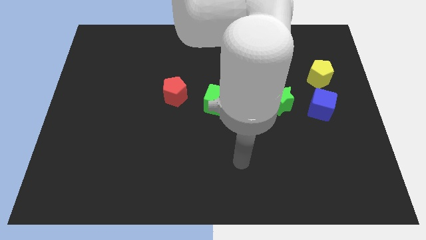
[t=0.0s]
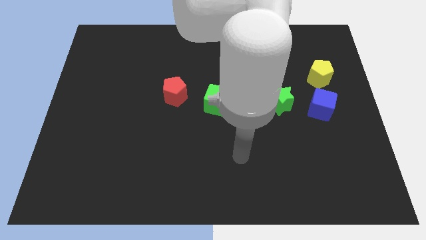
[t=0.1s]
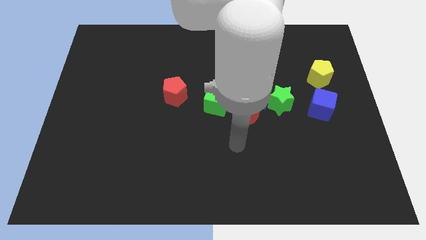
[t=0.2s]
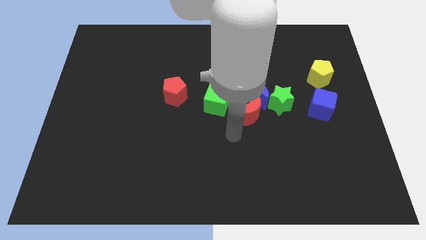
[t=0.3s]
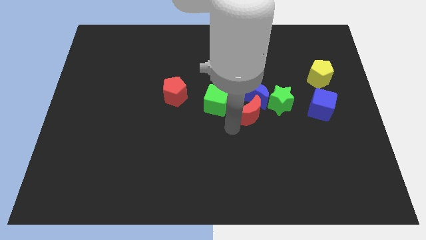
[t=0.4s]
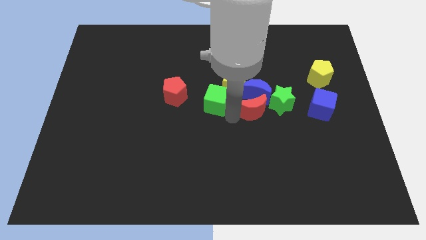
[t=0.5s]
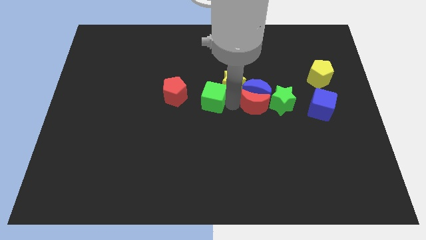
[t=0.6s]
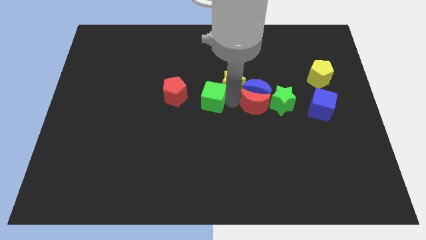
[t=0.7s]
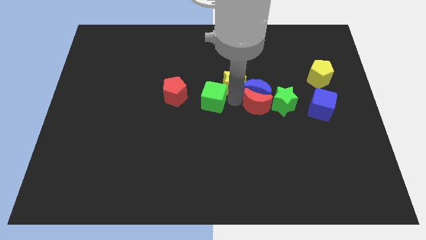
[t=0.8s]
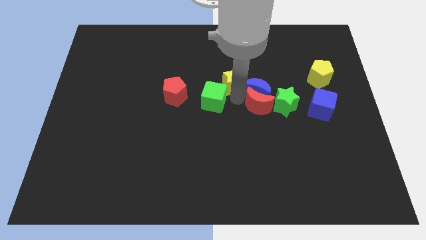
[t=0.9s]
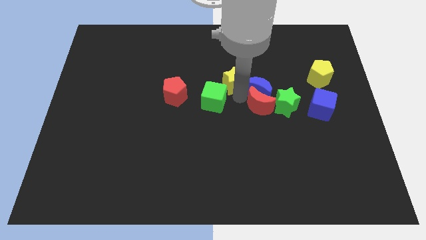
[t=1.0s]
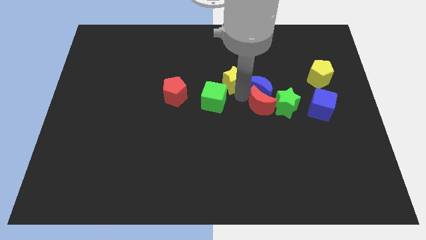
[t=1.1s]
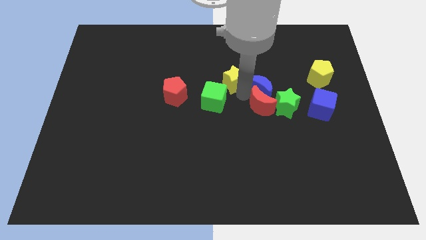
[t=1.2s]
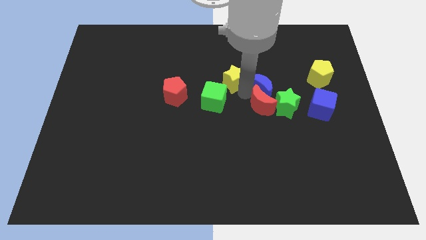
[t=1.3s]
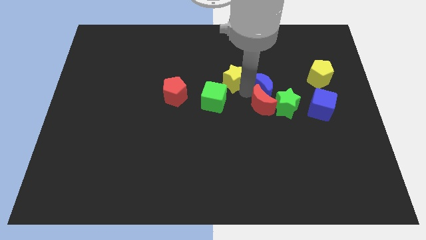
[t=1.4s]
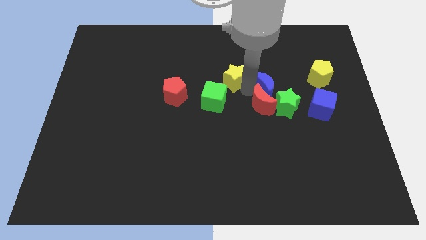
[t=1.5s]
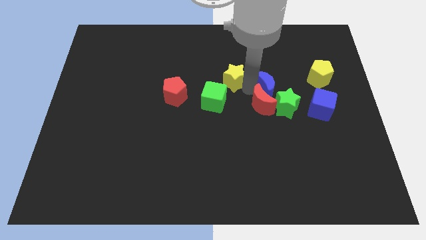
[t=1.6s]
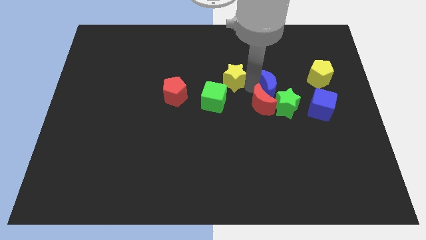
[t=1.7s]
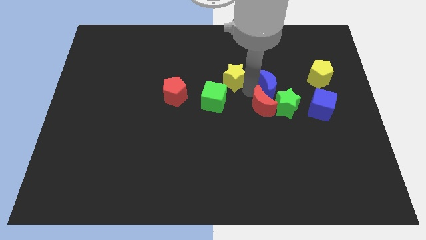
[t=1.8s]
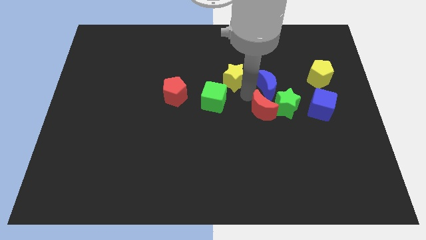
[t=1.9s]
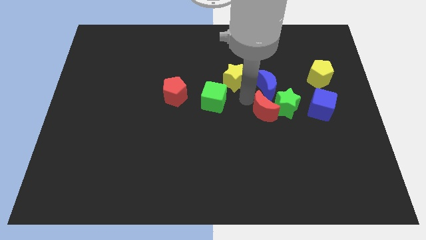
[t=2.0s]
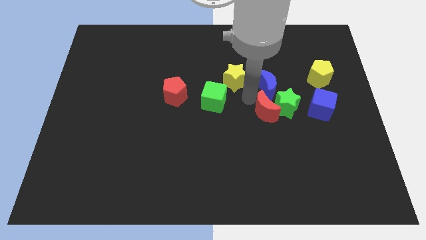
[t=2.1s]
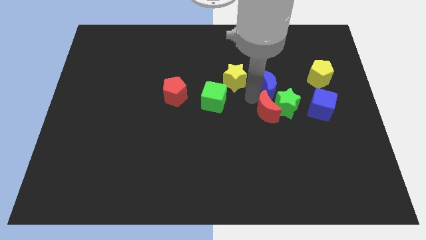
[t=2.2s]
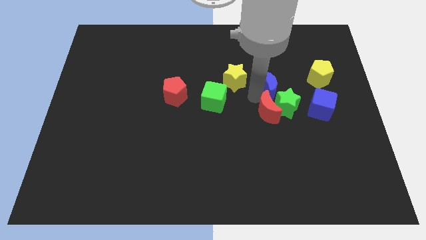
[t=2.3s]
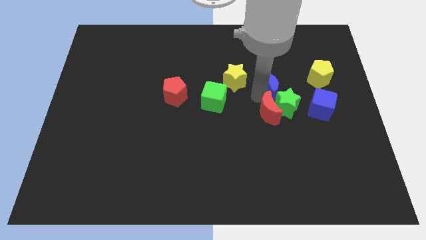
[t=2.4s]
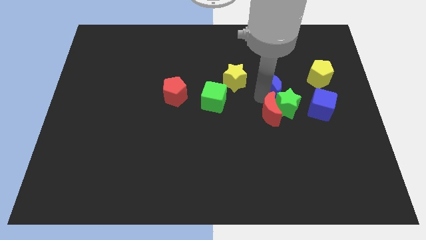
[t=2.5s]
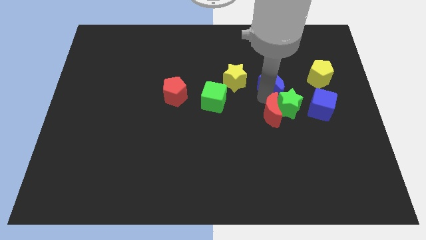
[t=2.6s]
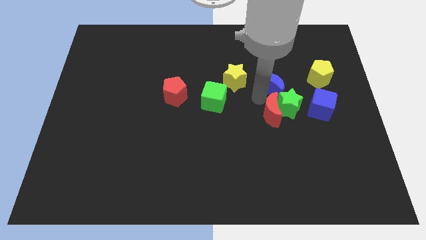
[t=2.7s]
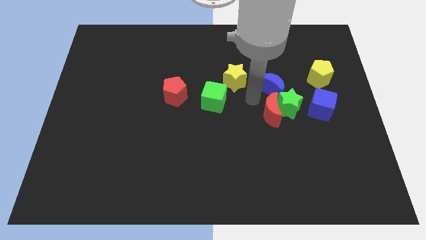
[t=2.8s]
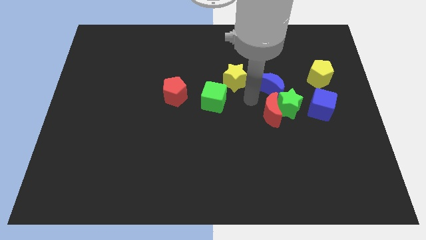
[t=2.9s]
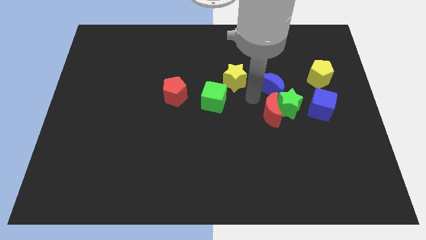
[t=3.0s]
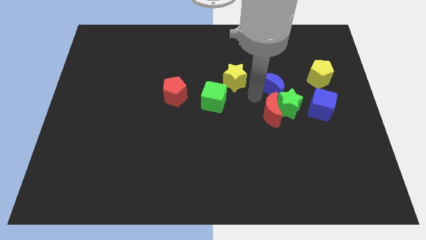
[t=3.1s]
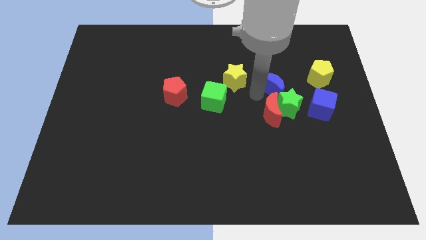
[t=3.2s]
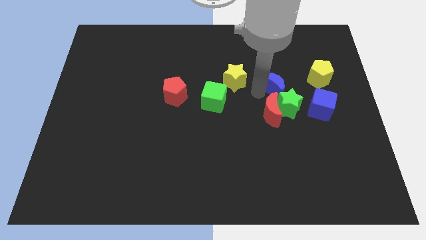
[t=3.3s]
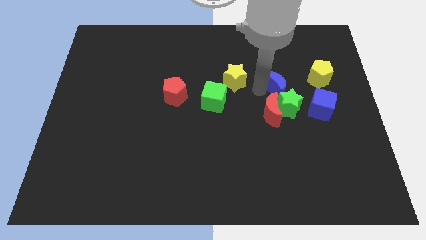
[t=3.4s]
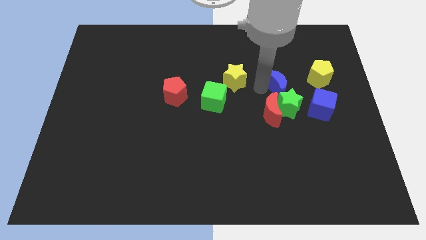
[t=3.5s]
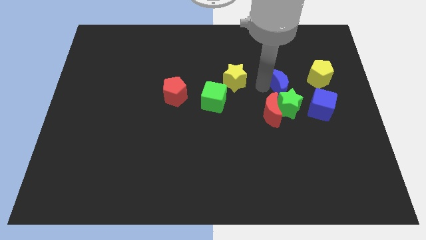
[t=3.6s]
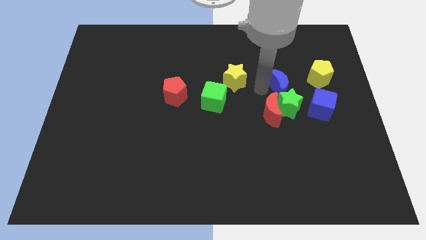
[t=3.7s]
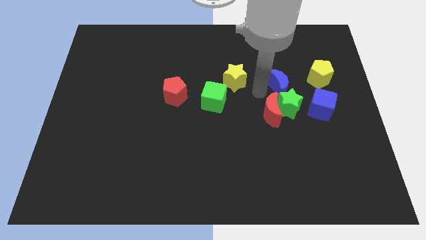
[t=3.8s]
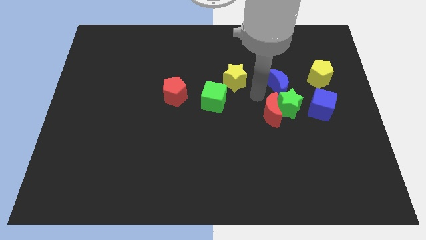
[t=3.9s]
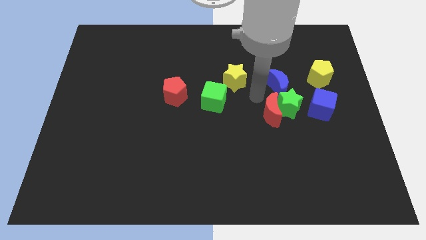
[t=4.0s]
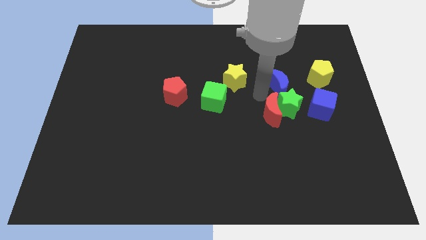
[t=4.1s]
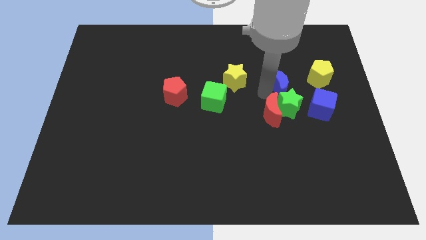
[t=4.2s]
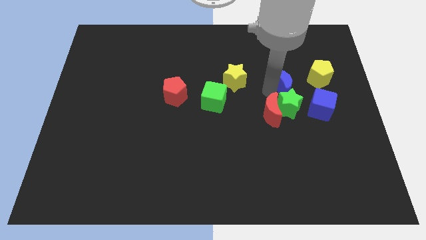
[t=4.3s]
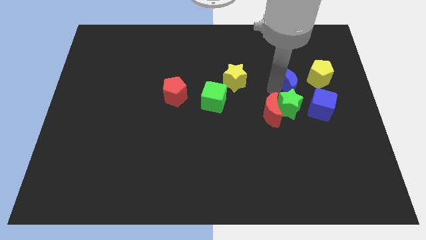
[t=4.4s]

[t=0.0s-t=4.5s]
pull the blue moon apart from the clump

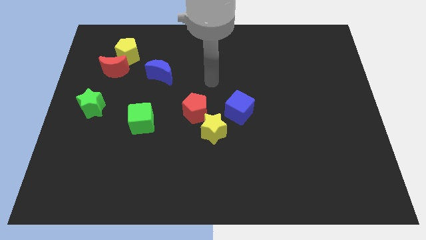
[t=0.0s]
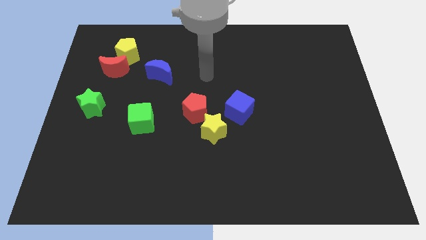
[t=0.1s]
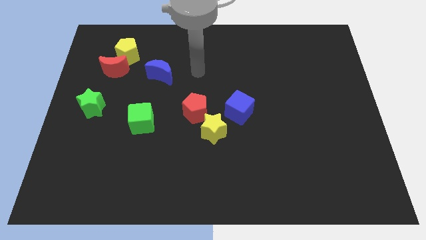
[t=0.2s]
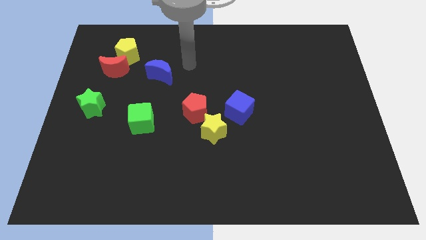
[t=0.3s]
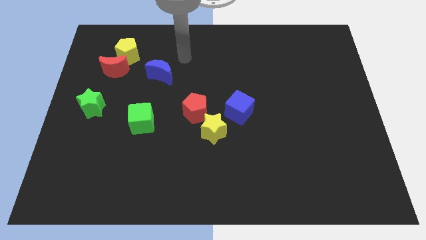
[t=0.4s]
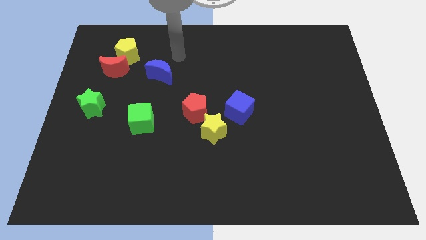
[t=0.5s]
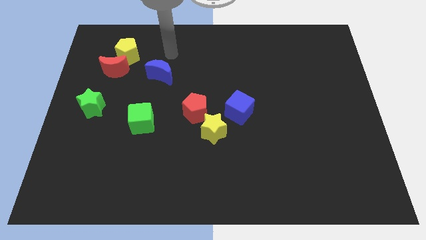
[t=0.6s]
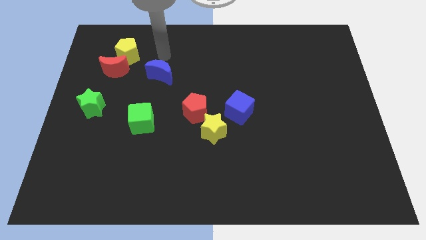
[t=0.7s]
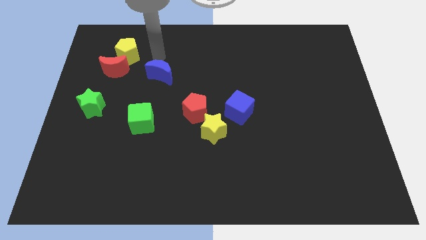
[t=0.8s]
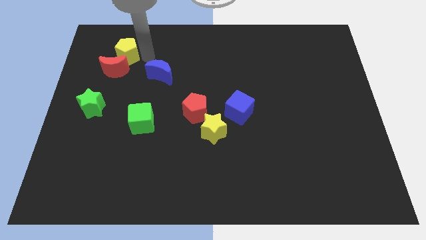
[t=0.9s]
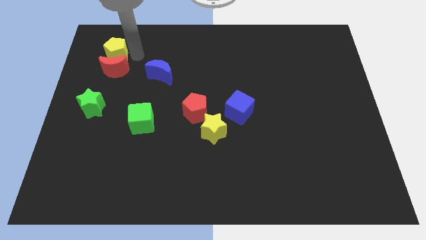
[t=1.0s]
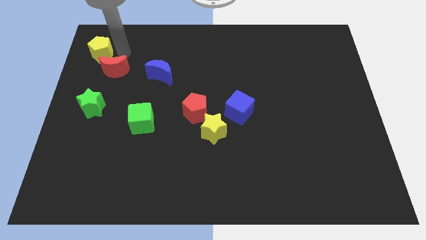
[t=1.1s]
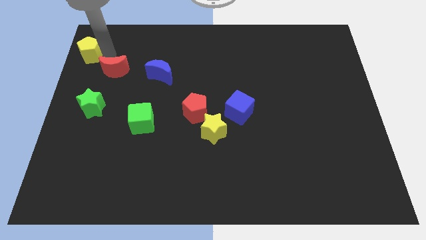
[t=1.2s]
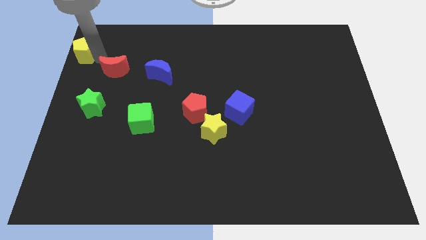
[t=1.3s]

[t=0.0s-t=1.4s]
separate the red moon from the yellow pentagon

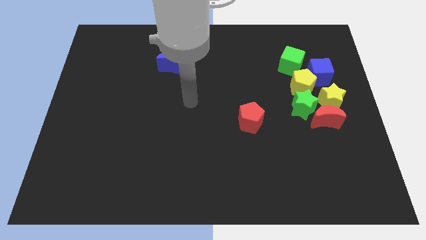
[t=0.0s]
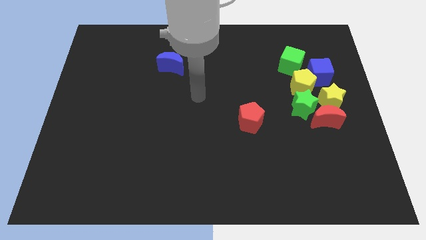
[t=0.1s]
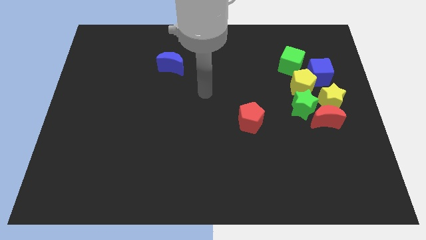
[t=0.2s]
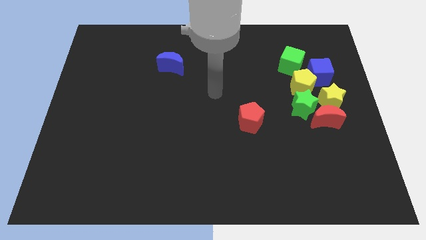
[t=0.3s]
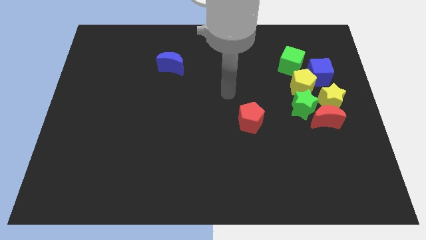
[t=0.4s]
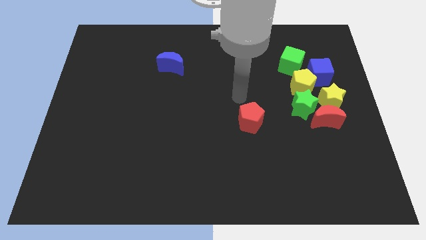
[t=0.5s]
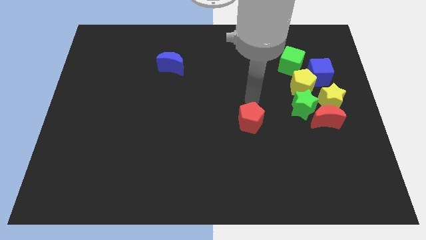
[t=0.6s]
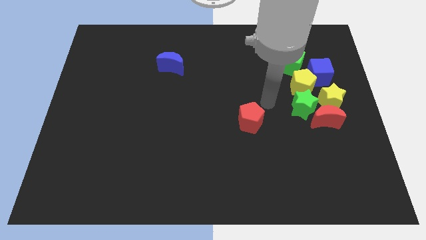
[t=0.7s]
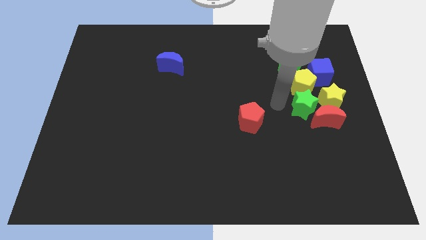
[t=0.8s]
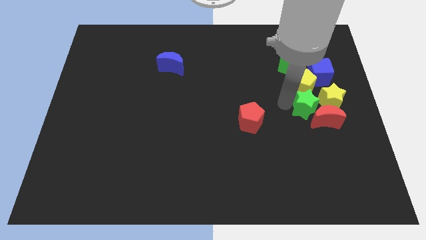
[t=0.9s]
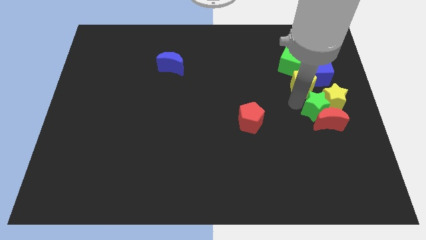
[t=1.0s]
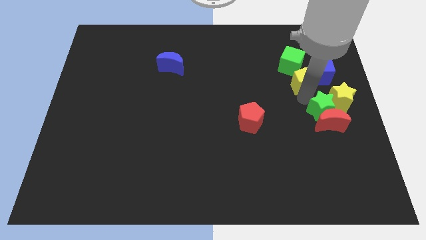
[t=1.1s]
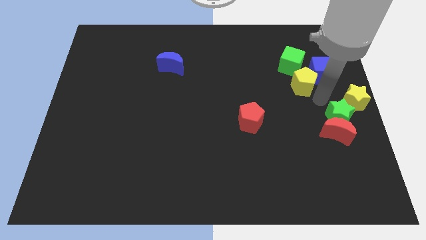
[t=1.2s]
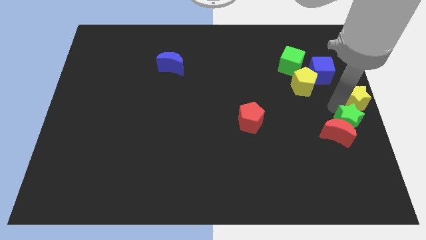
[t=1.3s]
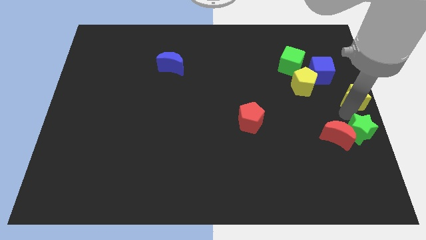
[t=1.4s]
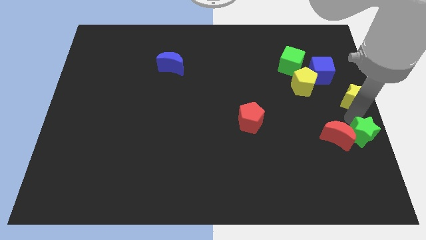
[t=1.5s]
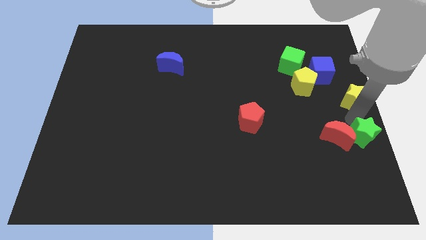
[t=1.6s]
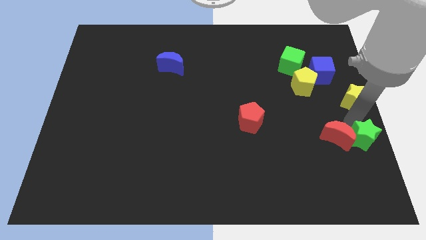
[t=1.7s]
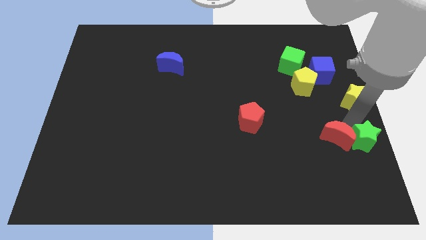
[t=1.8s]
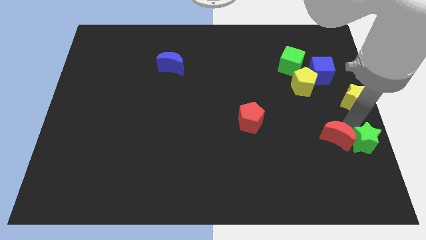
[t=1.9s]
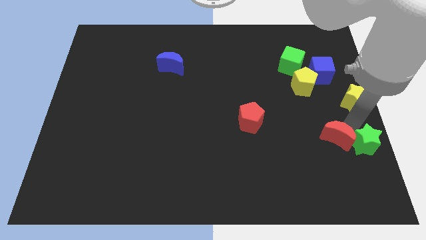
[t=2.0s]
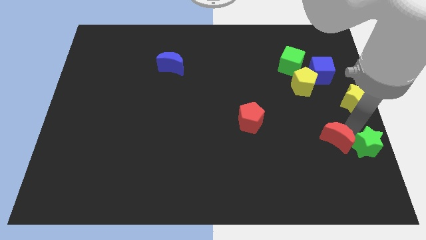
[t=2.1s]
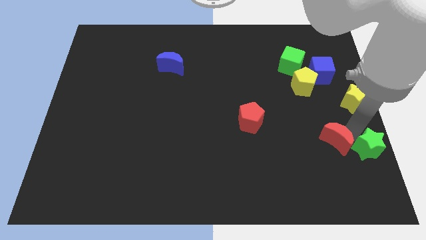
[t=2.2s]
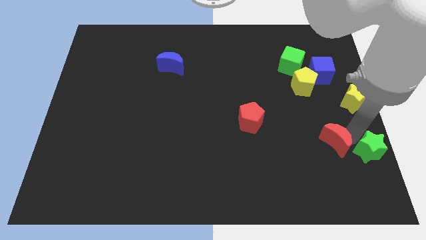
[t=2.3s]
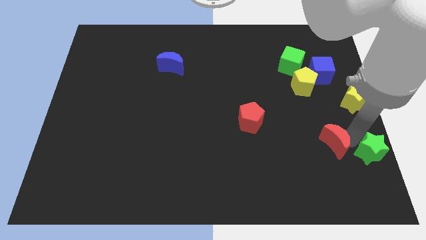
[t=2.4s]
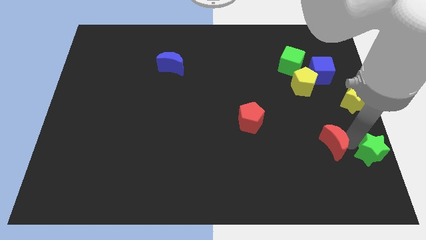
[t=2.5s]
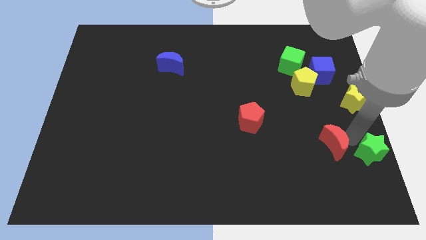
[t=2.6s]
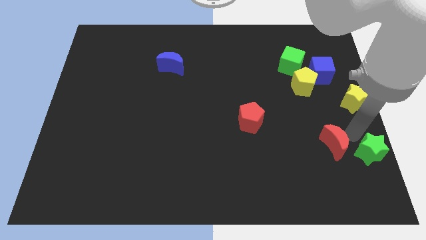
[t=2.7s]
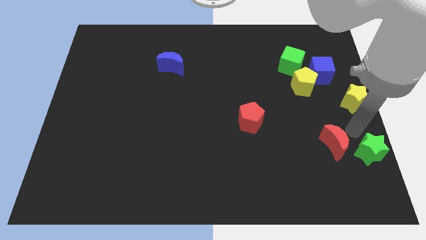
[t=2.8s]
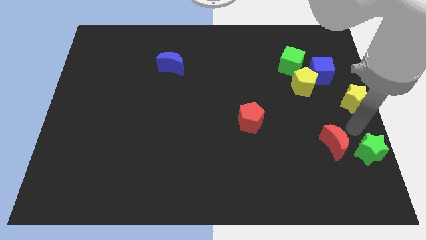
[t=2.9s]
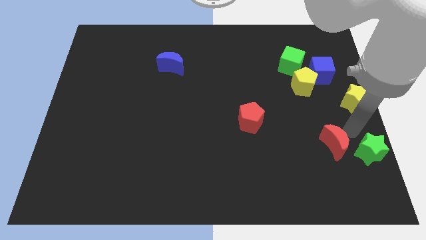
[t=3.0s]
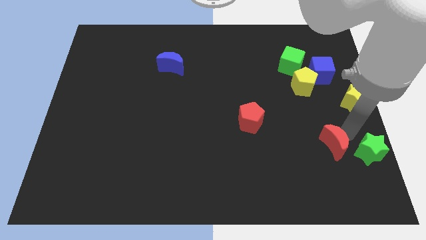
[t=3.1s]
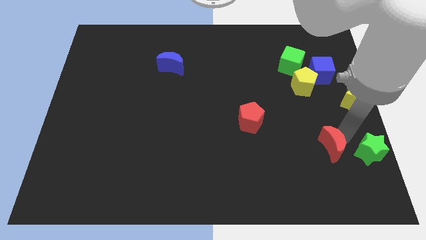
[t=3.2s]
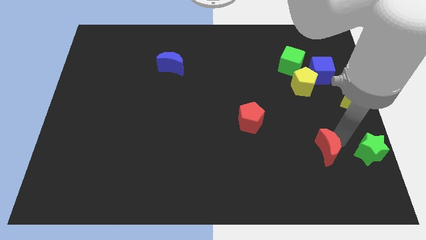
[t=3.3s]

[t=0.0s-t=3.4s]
move the red moon away from the yellow star and green star

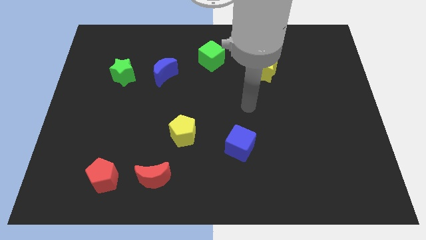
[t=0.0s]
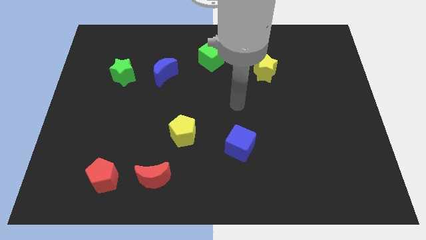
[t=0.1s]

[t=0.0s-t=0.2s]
separate the blue moon from the green star
